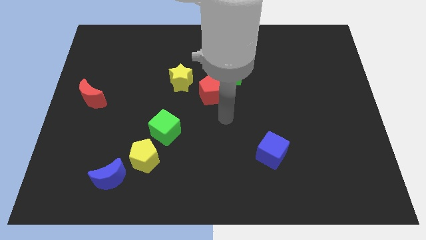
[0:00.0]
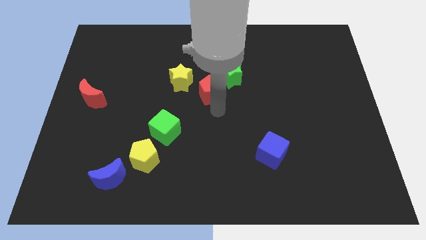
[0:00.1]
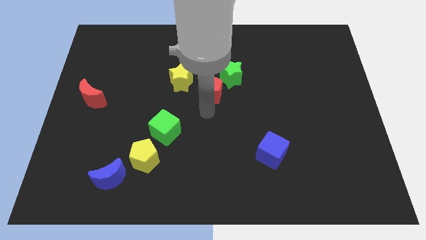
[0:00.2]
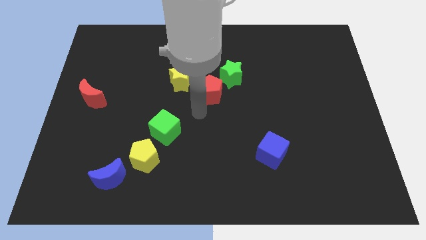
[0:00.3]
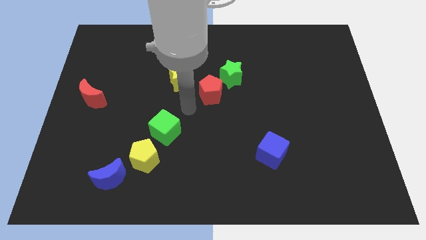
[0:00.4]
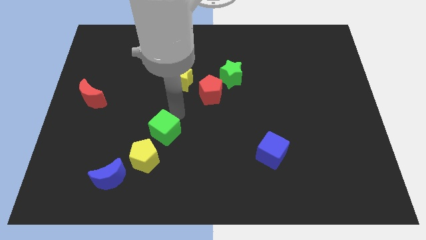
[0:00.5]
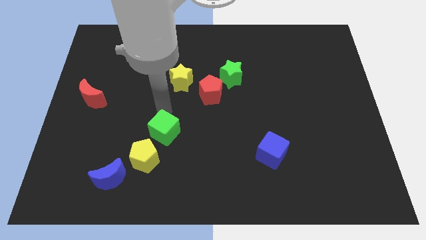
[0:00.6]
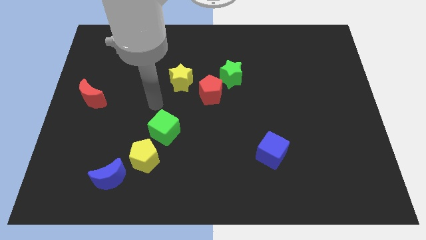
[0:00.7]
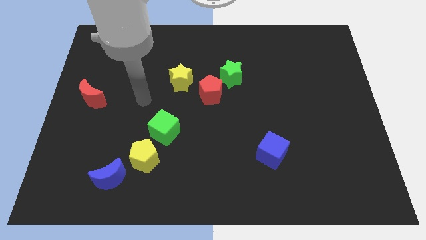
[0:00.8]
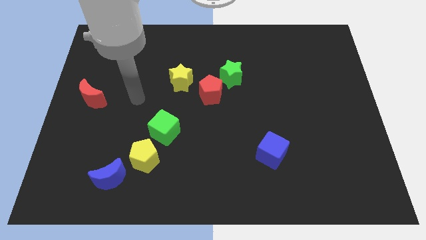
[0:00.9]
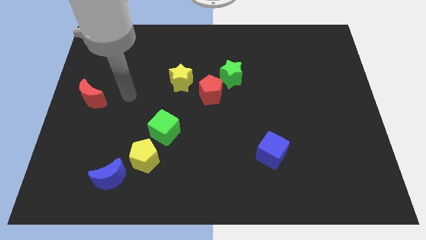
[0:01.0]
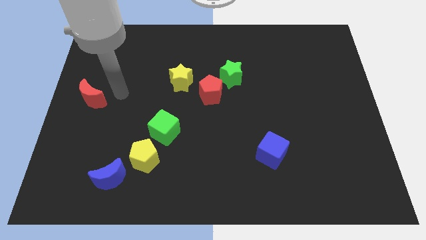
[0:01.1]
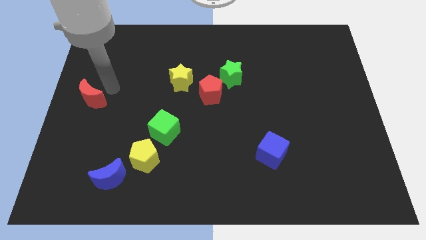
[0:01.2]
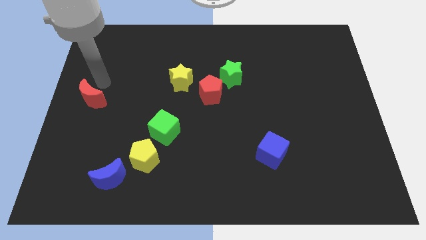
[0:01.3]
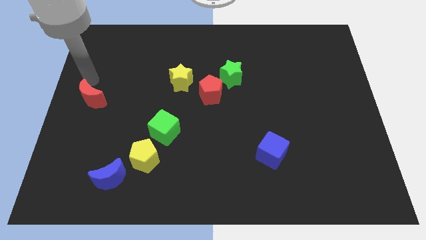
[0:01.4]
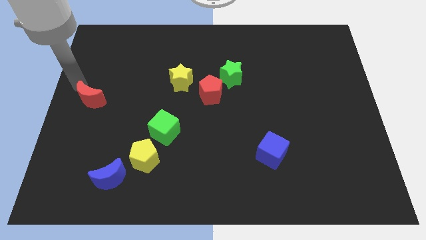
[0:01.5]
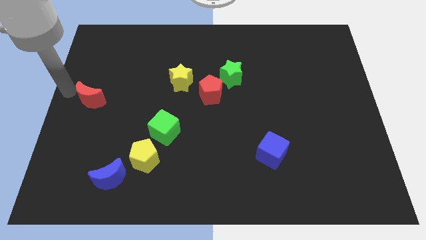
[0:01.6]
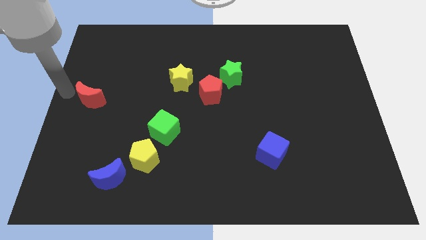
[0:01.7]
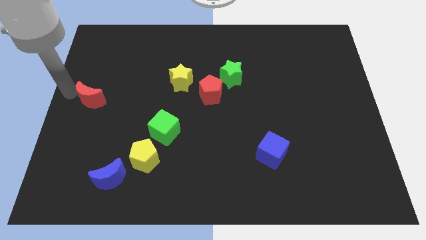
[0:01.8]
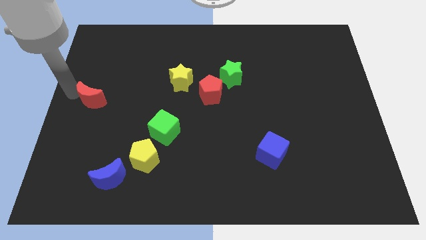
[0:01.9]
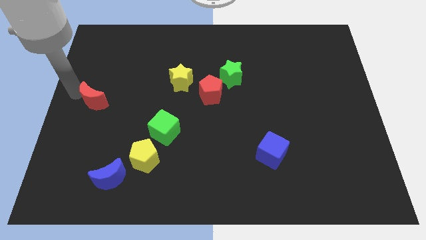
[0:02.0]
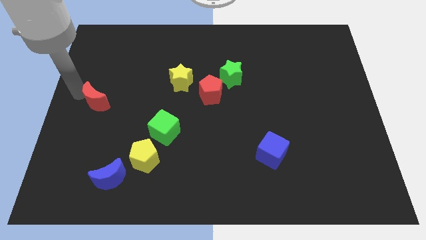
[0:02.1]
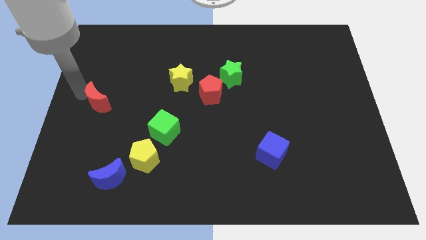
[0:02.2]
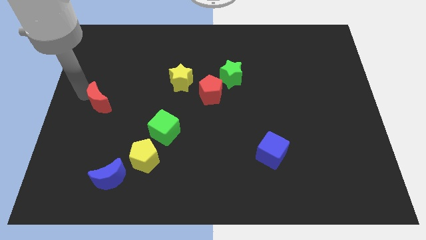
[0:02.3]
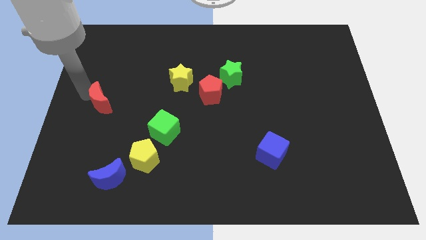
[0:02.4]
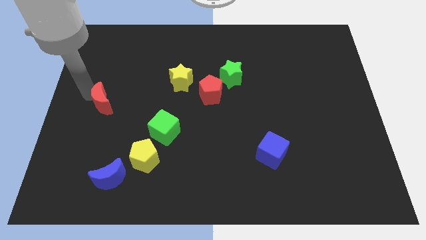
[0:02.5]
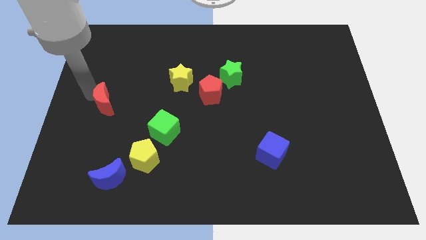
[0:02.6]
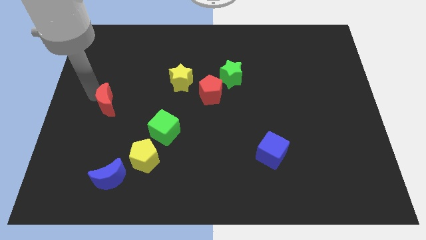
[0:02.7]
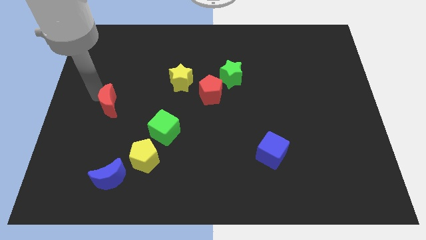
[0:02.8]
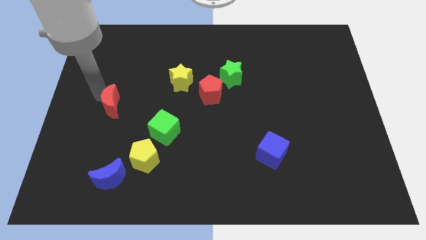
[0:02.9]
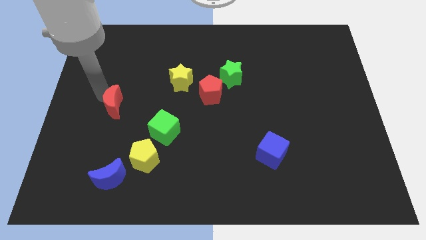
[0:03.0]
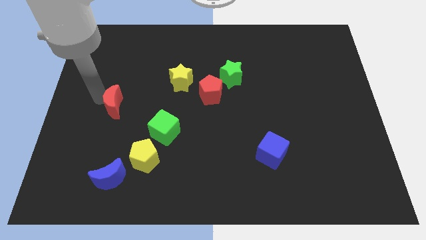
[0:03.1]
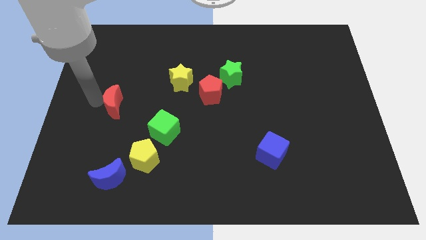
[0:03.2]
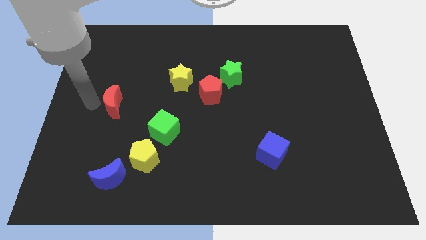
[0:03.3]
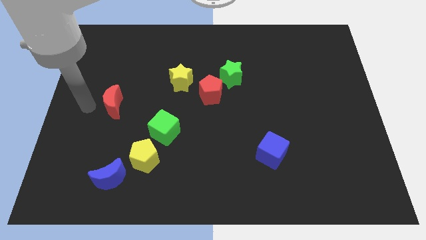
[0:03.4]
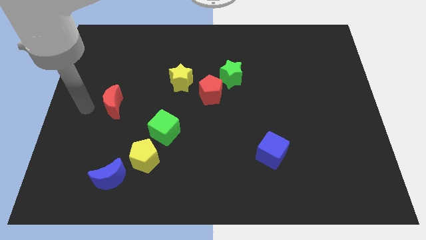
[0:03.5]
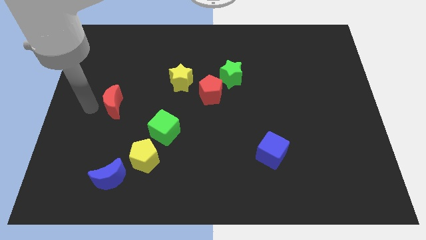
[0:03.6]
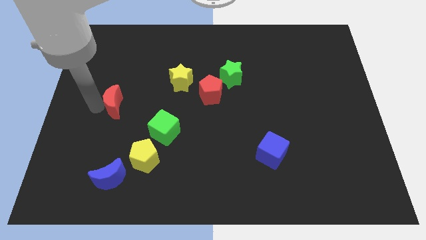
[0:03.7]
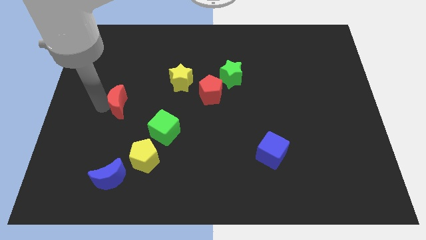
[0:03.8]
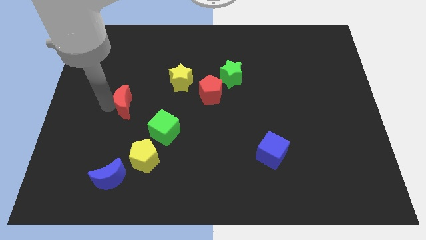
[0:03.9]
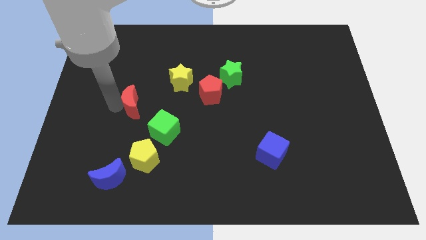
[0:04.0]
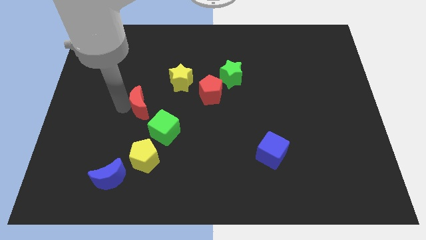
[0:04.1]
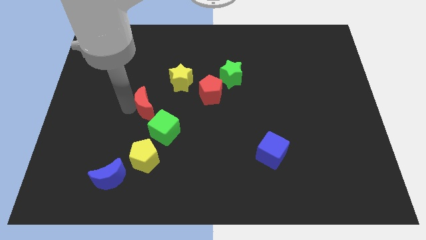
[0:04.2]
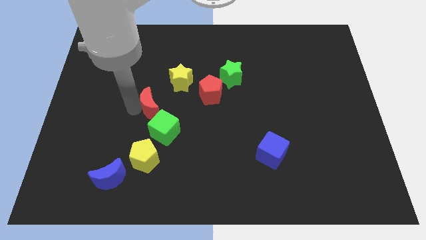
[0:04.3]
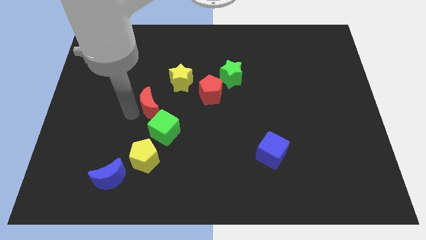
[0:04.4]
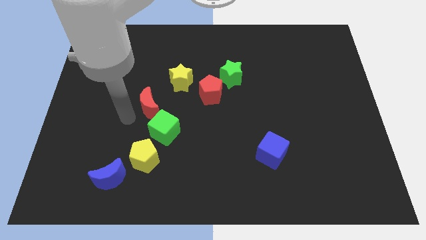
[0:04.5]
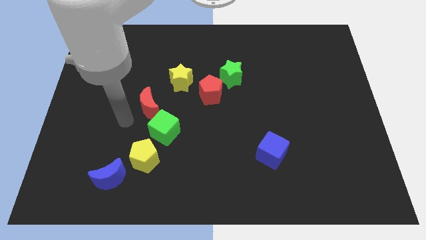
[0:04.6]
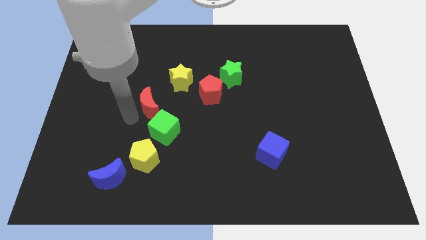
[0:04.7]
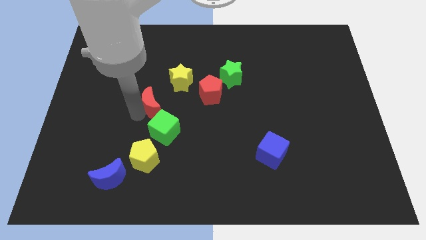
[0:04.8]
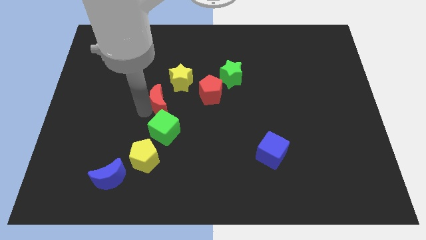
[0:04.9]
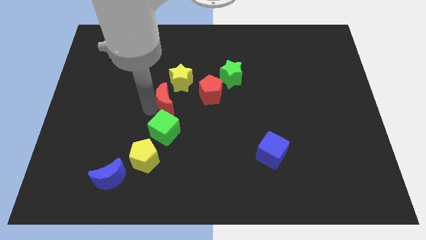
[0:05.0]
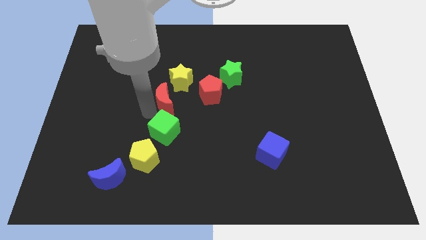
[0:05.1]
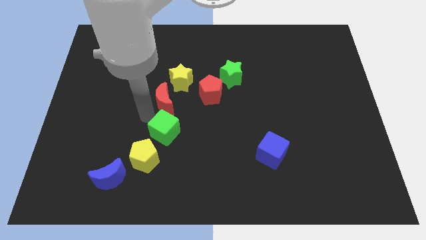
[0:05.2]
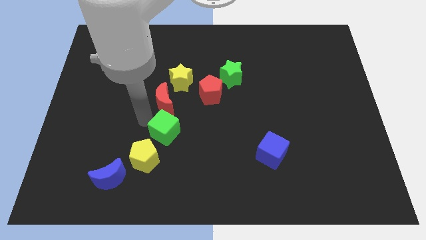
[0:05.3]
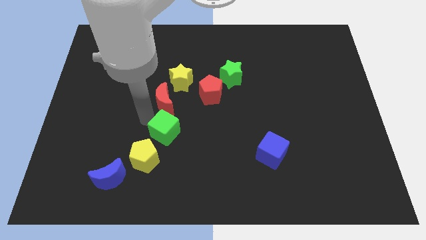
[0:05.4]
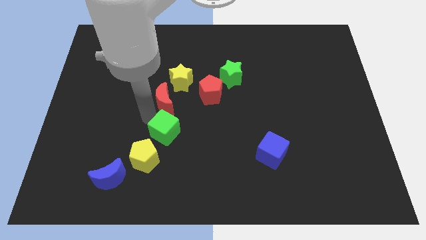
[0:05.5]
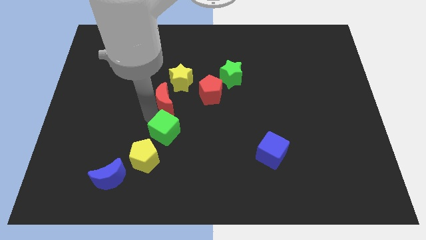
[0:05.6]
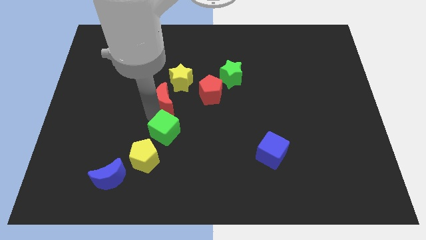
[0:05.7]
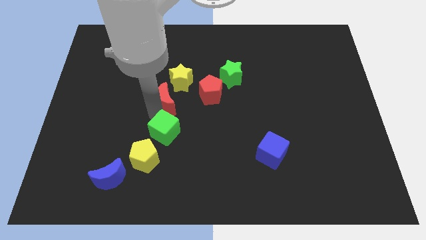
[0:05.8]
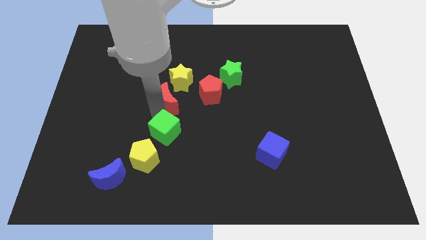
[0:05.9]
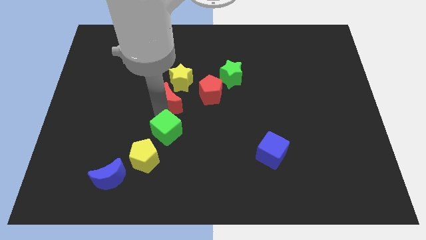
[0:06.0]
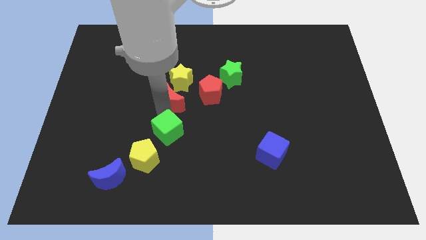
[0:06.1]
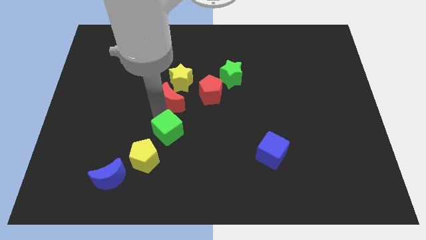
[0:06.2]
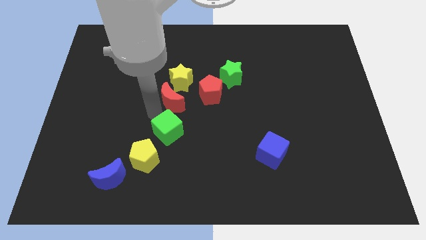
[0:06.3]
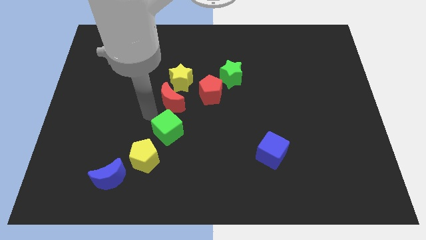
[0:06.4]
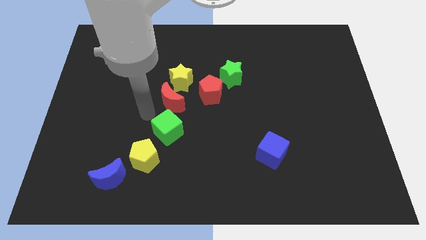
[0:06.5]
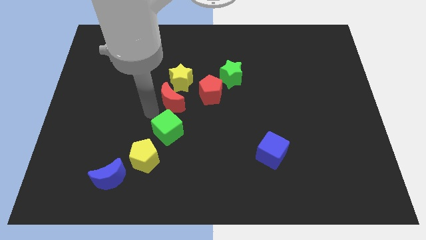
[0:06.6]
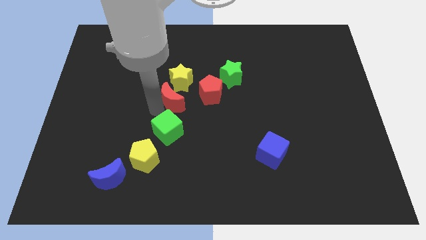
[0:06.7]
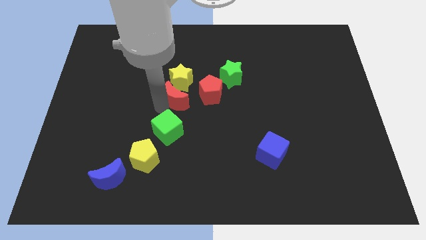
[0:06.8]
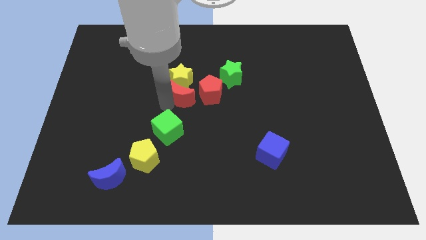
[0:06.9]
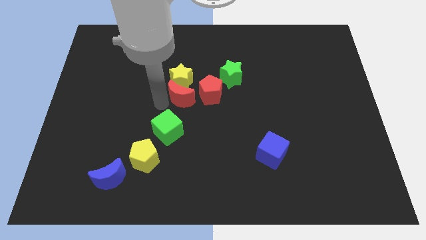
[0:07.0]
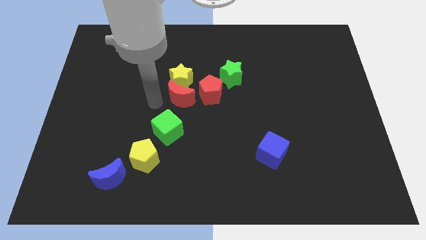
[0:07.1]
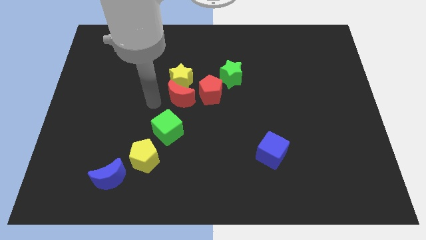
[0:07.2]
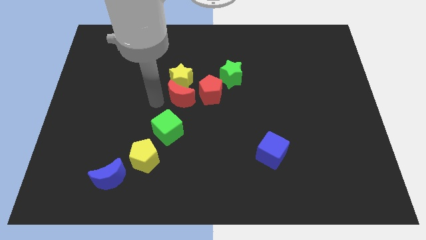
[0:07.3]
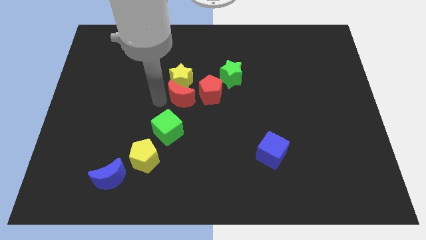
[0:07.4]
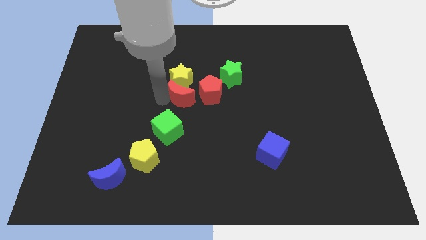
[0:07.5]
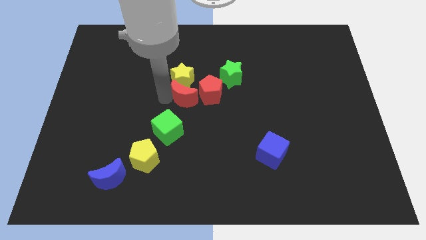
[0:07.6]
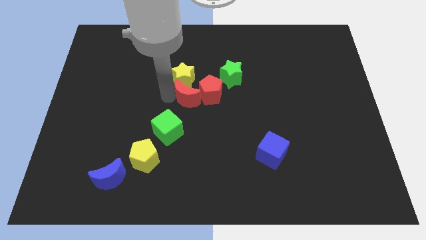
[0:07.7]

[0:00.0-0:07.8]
move the red moon to the red pentagon
